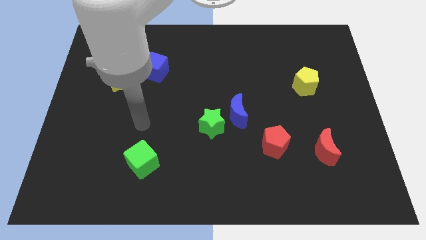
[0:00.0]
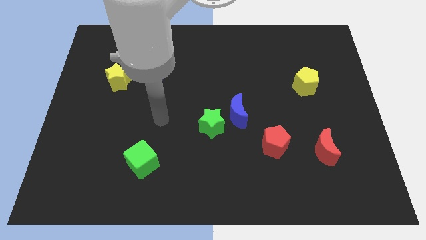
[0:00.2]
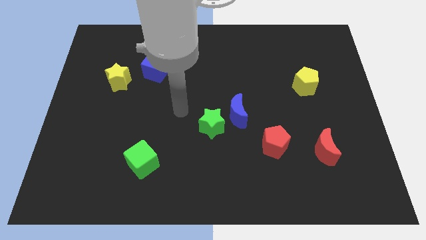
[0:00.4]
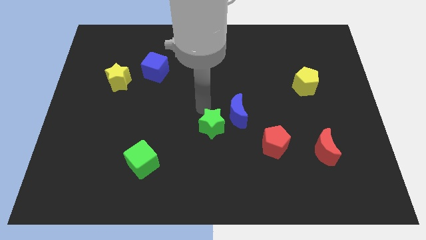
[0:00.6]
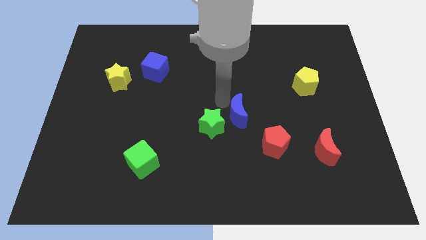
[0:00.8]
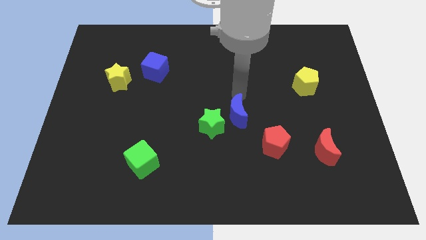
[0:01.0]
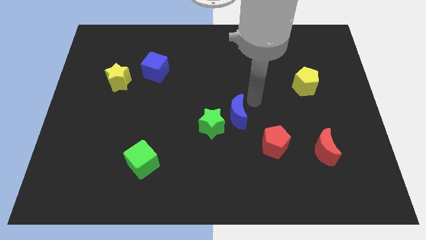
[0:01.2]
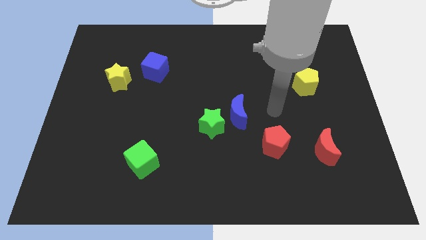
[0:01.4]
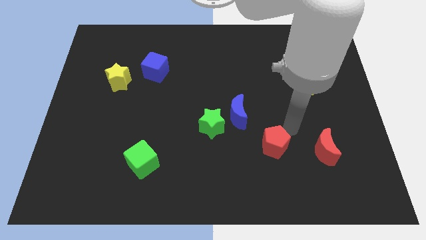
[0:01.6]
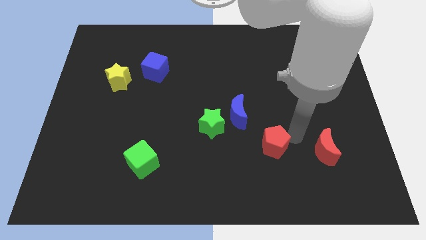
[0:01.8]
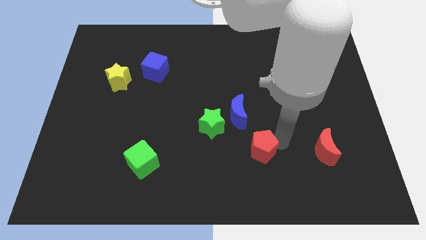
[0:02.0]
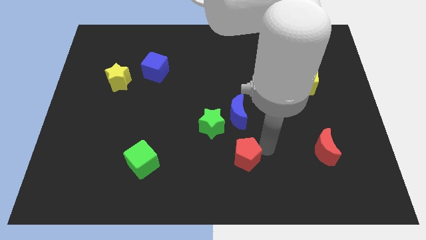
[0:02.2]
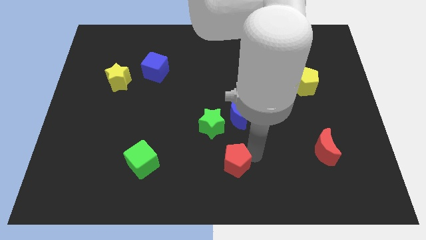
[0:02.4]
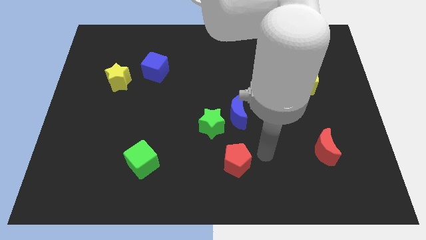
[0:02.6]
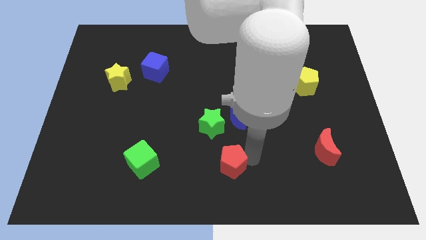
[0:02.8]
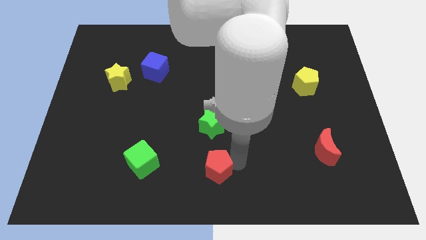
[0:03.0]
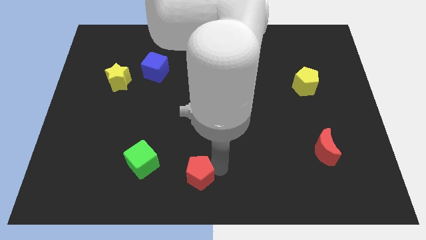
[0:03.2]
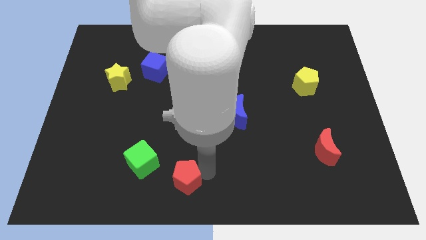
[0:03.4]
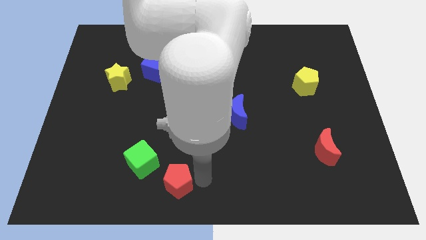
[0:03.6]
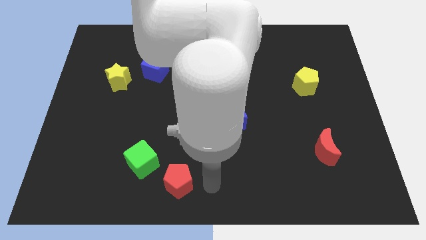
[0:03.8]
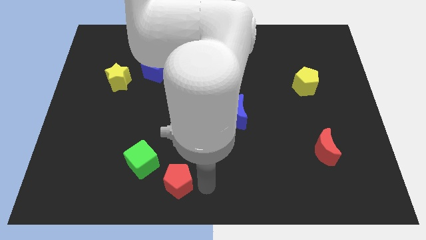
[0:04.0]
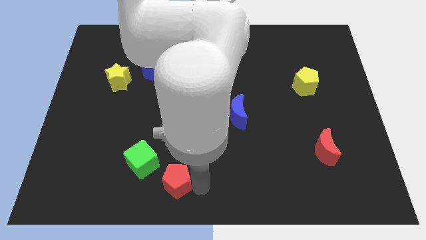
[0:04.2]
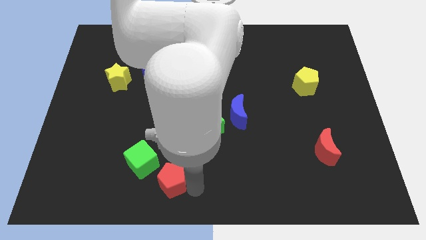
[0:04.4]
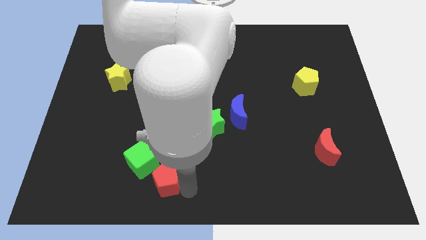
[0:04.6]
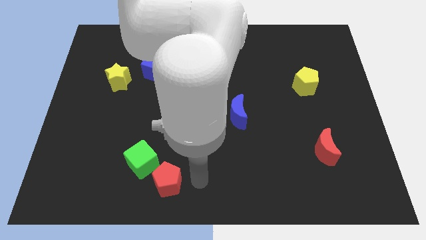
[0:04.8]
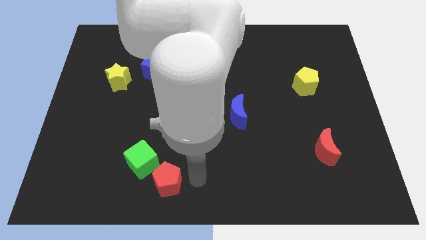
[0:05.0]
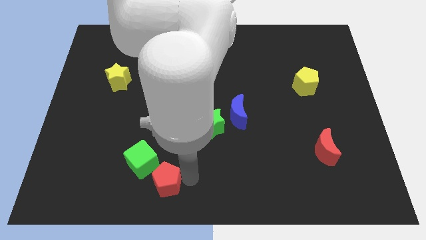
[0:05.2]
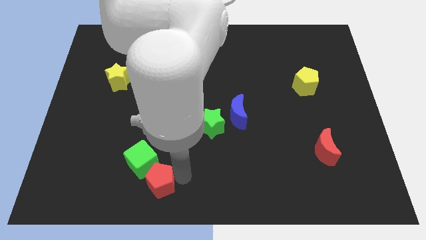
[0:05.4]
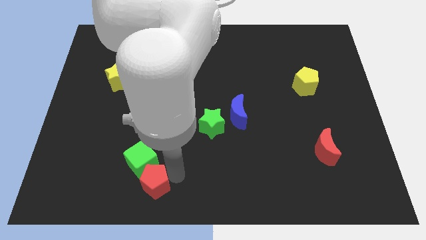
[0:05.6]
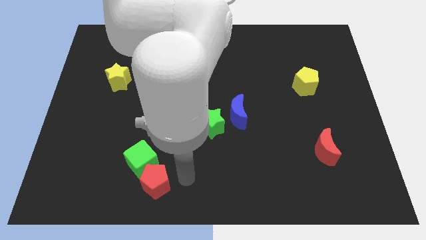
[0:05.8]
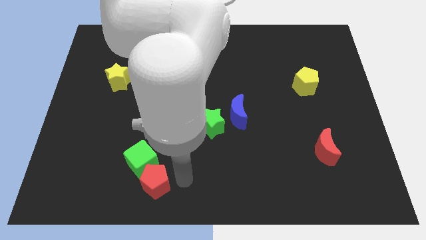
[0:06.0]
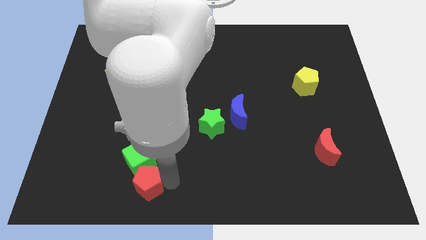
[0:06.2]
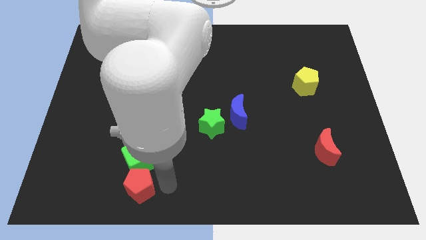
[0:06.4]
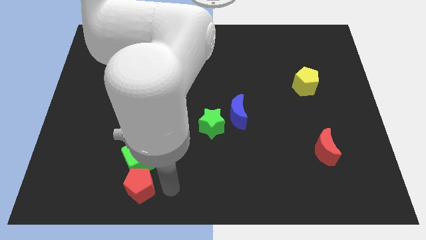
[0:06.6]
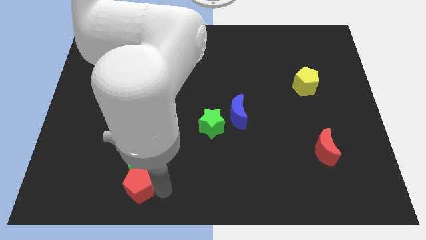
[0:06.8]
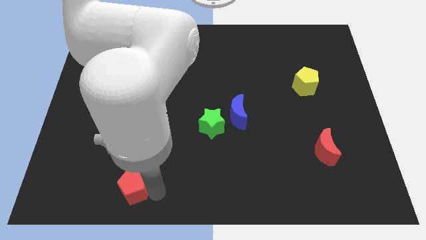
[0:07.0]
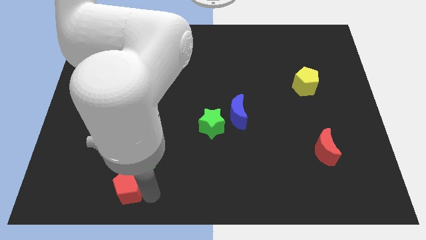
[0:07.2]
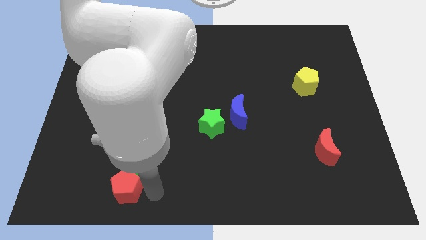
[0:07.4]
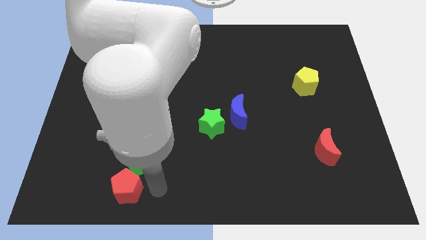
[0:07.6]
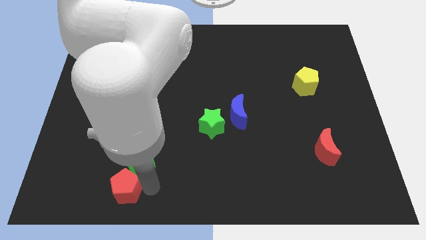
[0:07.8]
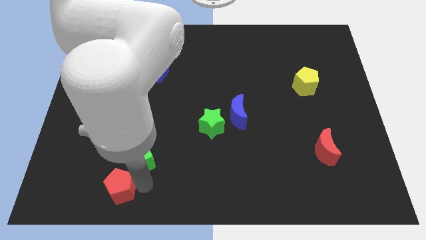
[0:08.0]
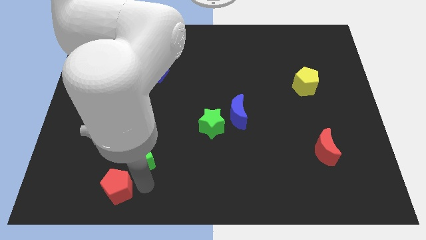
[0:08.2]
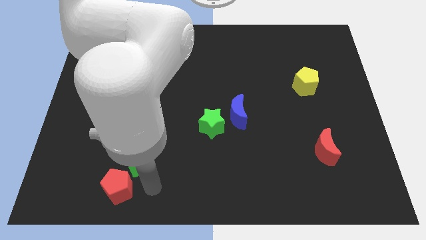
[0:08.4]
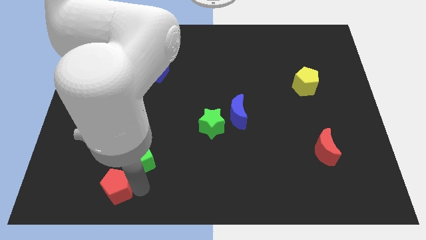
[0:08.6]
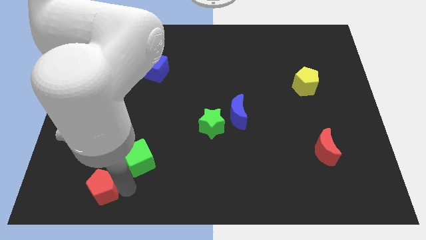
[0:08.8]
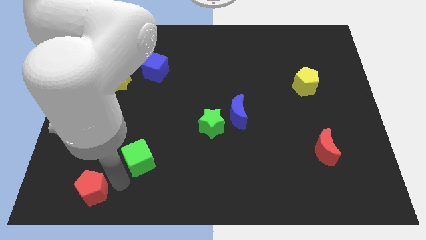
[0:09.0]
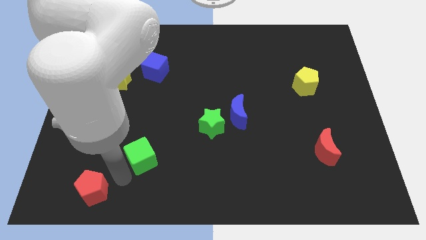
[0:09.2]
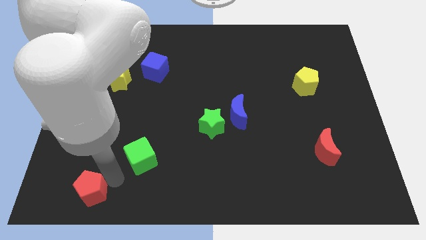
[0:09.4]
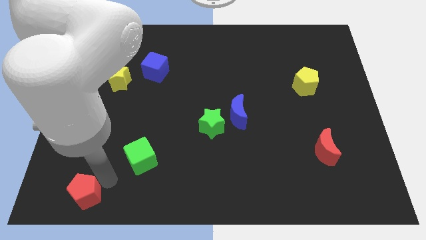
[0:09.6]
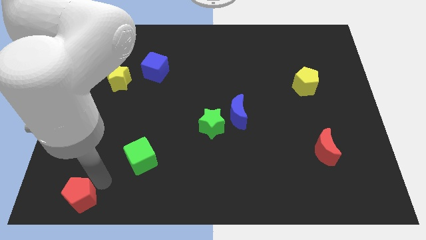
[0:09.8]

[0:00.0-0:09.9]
put the red pentagon to the lower left corner

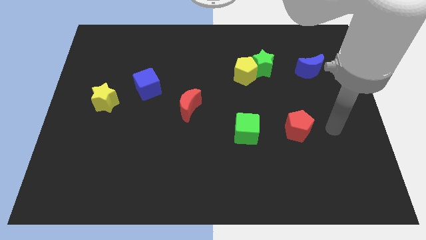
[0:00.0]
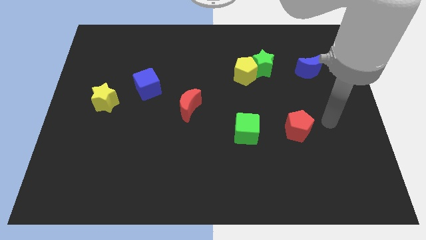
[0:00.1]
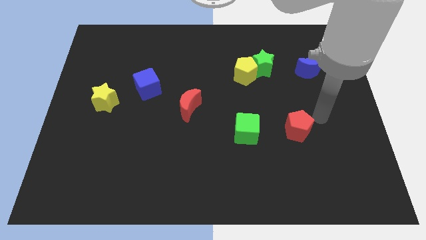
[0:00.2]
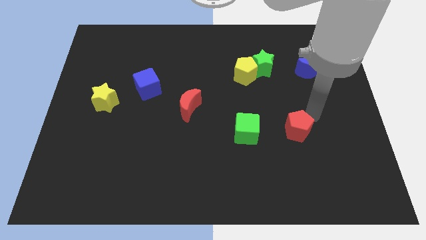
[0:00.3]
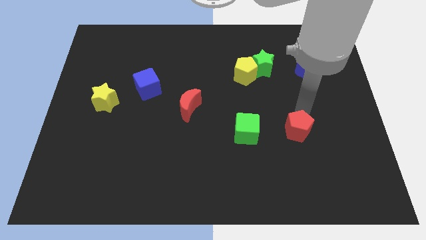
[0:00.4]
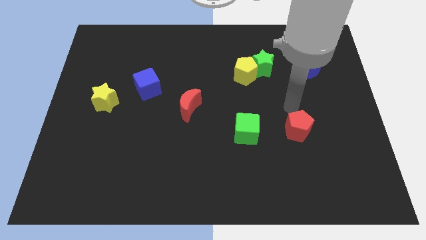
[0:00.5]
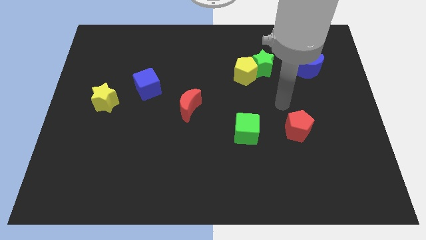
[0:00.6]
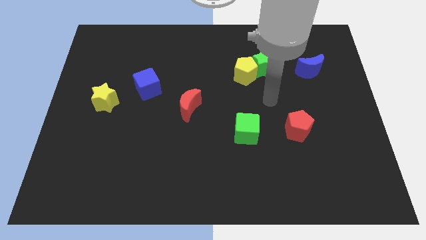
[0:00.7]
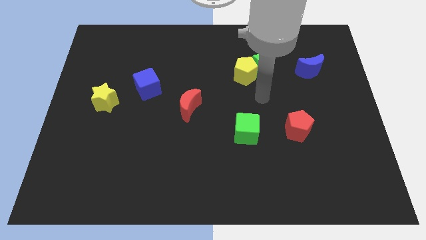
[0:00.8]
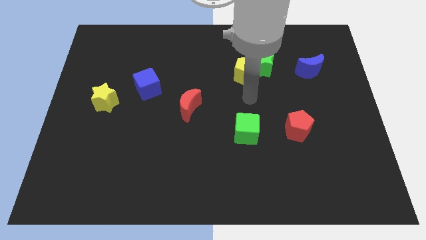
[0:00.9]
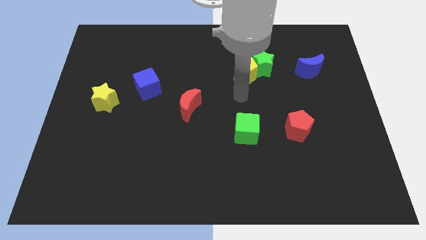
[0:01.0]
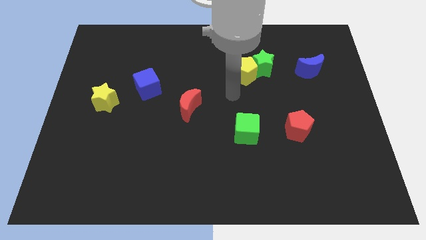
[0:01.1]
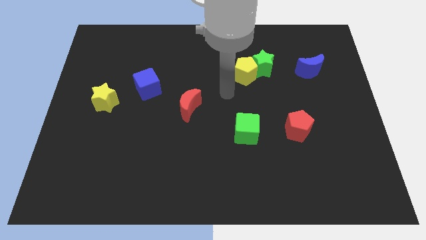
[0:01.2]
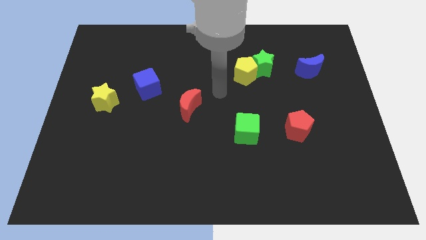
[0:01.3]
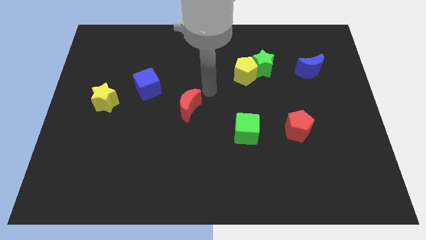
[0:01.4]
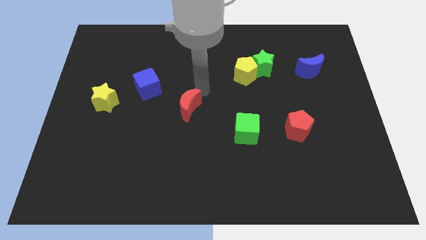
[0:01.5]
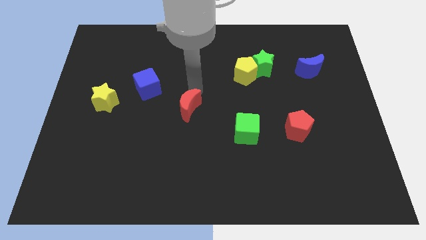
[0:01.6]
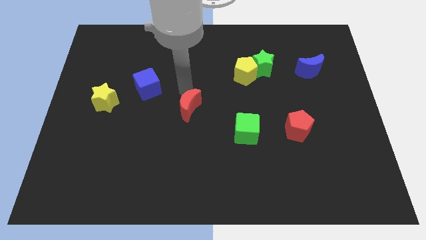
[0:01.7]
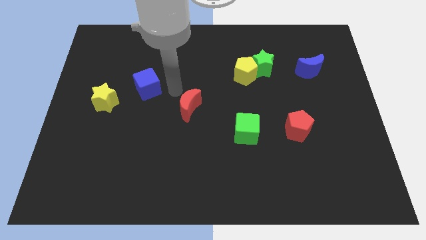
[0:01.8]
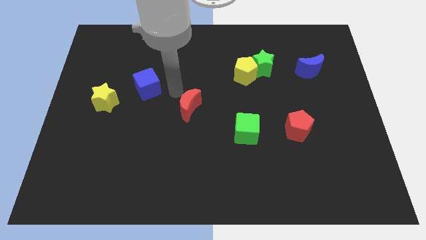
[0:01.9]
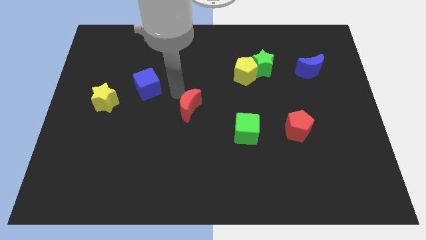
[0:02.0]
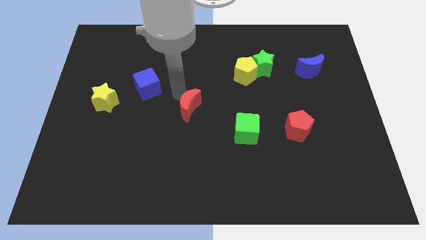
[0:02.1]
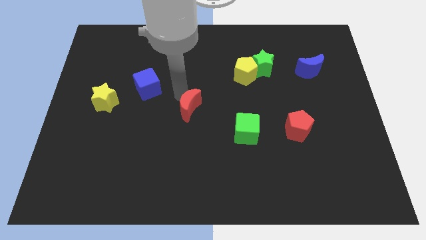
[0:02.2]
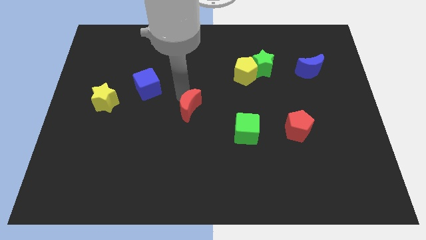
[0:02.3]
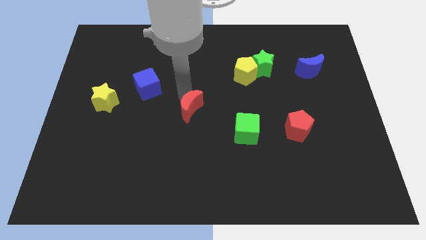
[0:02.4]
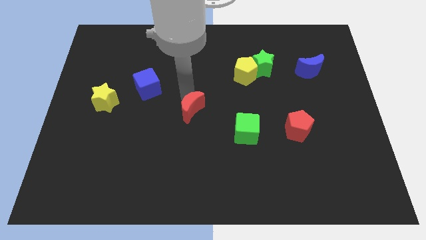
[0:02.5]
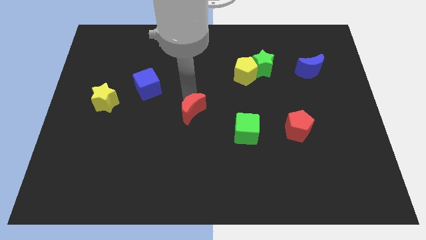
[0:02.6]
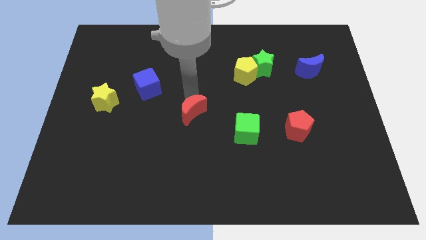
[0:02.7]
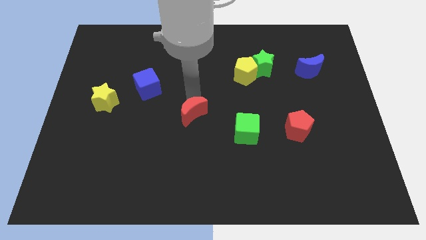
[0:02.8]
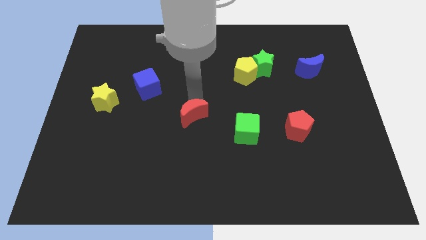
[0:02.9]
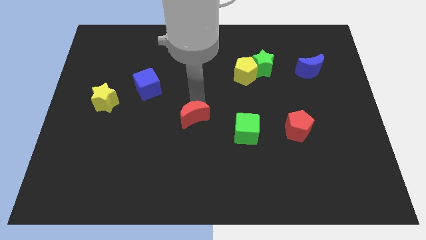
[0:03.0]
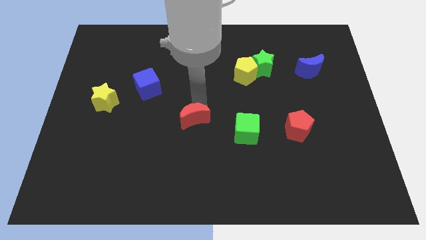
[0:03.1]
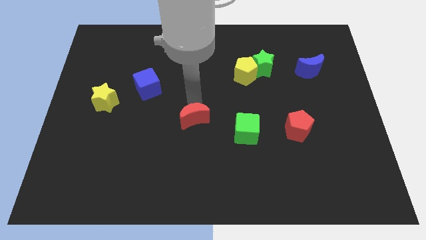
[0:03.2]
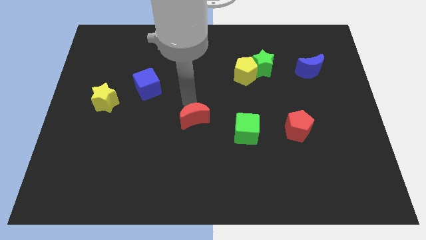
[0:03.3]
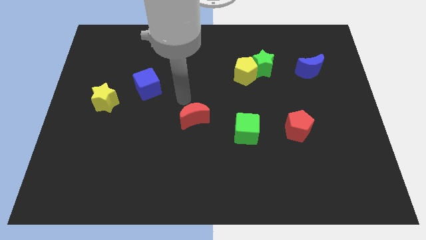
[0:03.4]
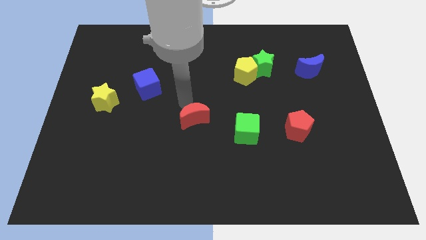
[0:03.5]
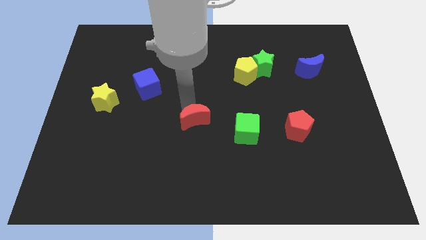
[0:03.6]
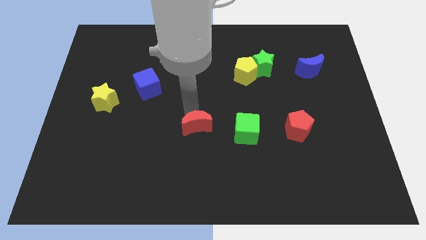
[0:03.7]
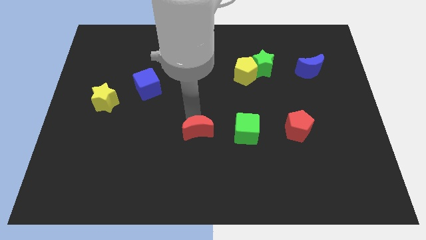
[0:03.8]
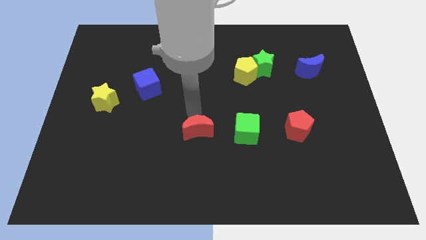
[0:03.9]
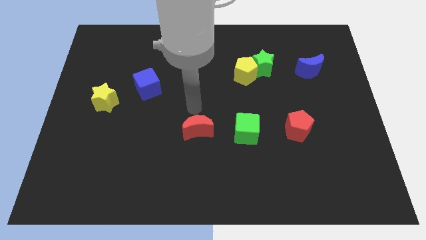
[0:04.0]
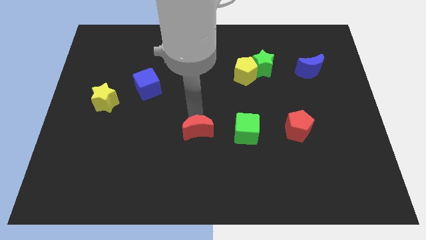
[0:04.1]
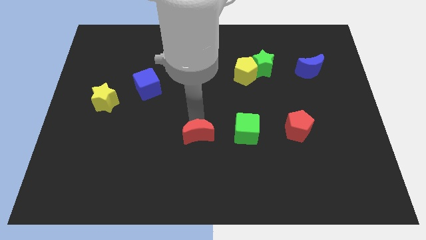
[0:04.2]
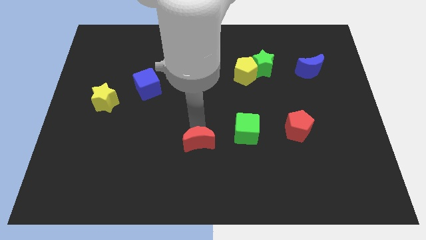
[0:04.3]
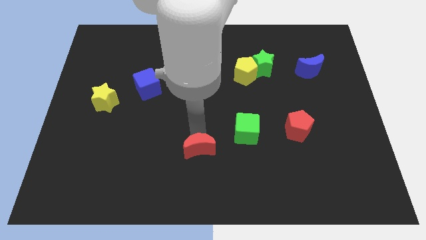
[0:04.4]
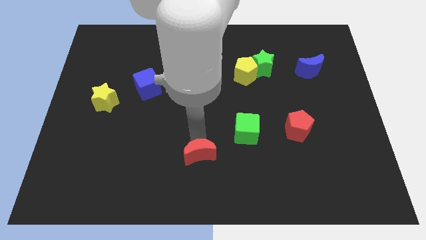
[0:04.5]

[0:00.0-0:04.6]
put the red moon to the bottom side
